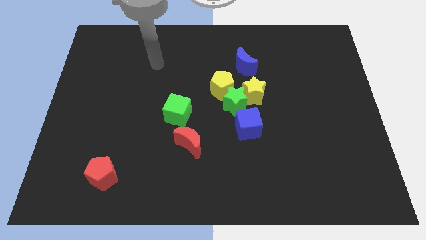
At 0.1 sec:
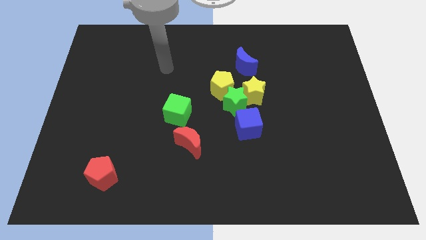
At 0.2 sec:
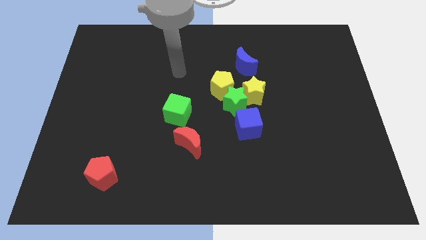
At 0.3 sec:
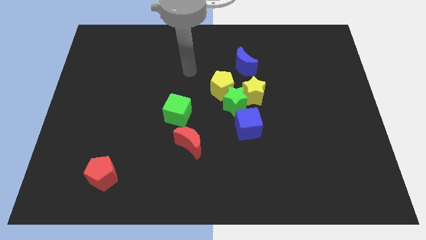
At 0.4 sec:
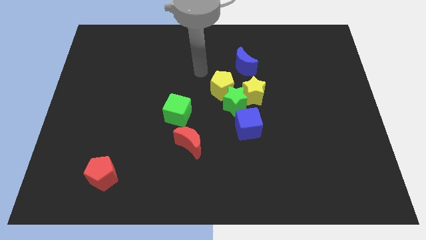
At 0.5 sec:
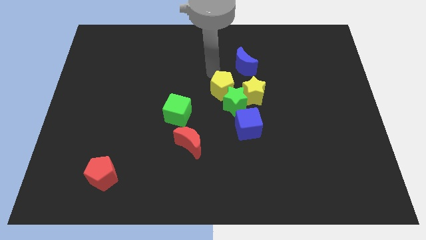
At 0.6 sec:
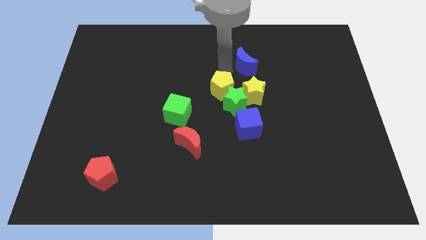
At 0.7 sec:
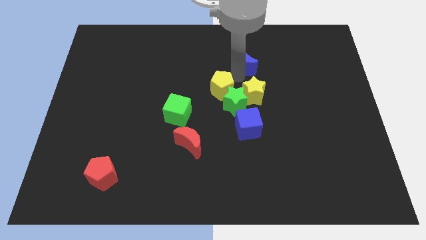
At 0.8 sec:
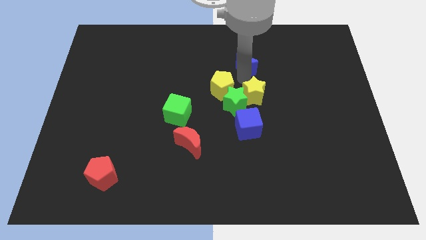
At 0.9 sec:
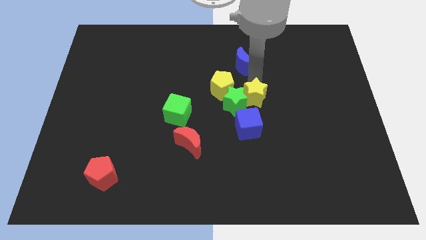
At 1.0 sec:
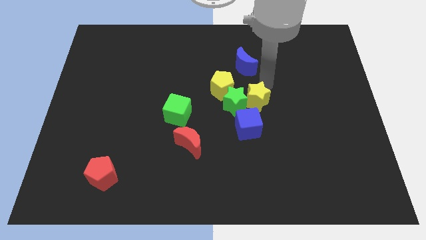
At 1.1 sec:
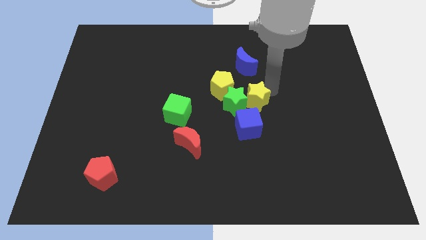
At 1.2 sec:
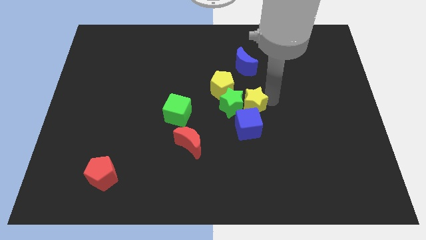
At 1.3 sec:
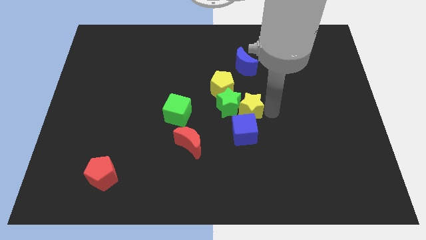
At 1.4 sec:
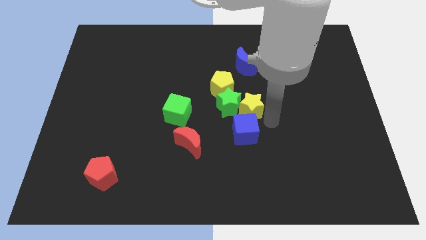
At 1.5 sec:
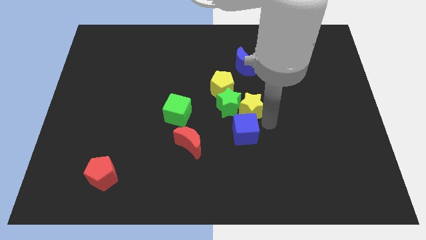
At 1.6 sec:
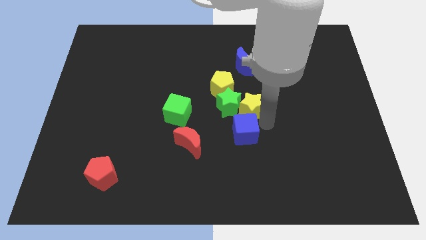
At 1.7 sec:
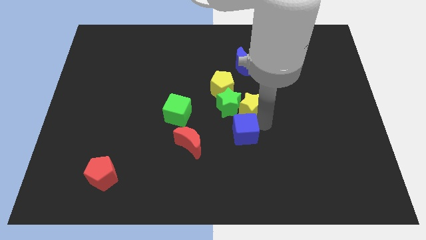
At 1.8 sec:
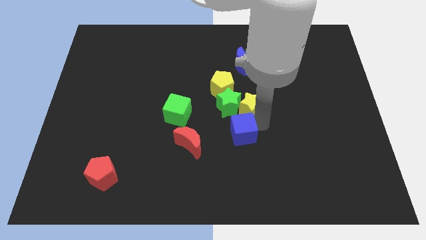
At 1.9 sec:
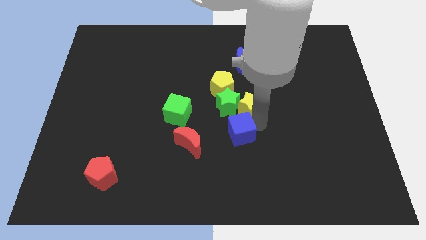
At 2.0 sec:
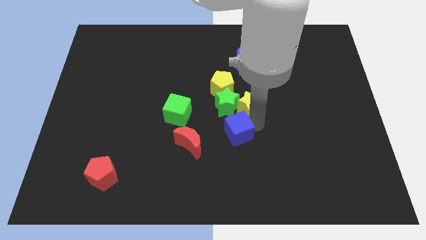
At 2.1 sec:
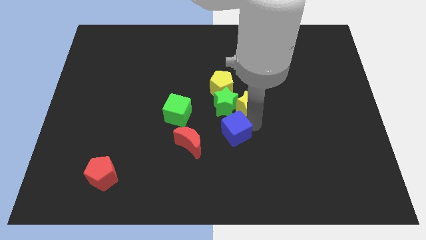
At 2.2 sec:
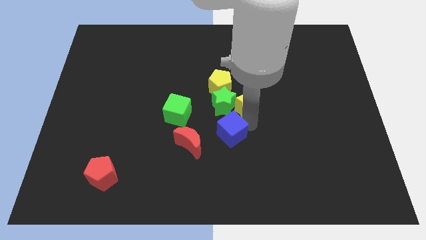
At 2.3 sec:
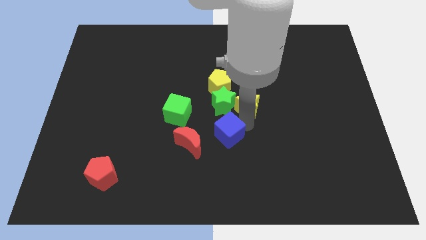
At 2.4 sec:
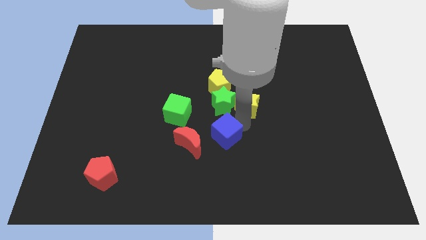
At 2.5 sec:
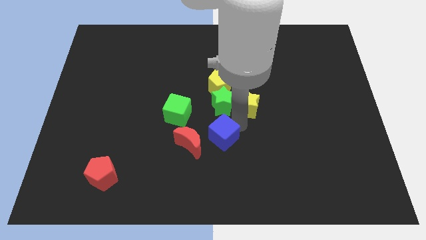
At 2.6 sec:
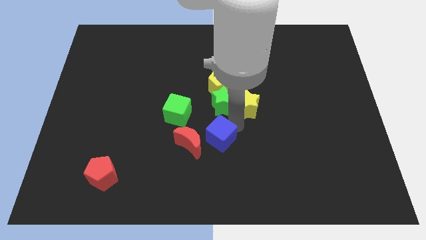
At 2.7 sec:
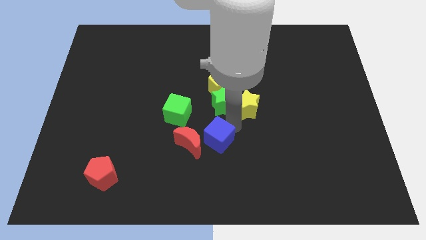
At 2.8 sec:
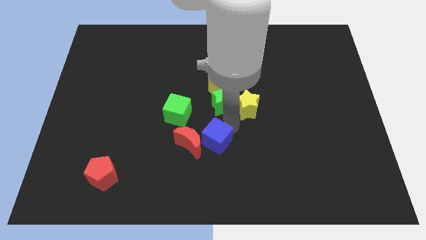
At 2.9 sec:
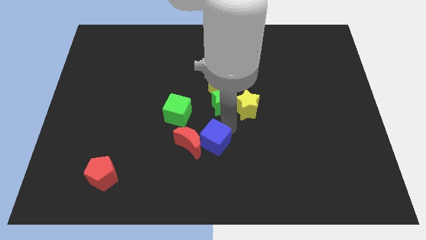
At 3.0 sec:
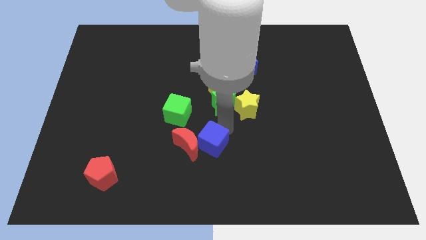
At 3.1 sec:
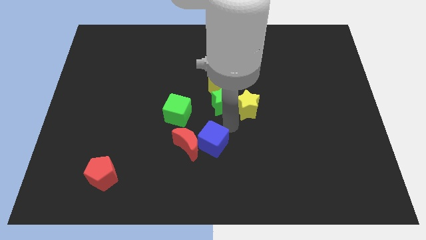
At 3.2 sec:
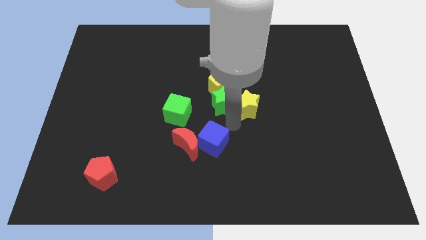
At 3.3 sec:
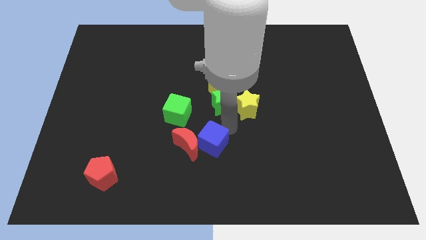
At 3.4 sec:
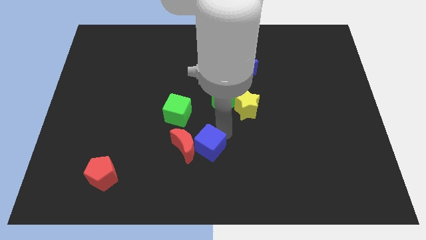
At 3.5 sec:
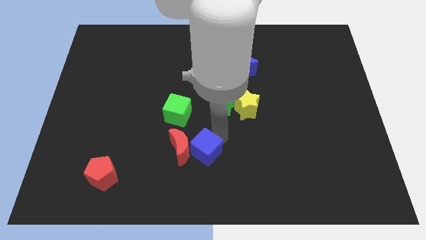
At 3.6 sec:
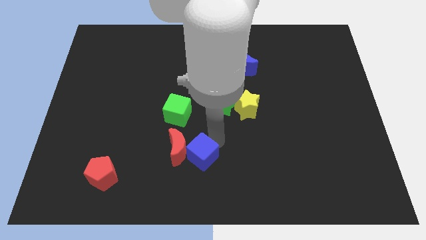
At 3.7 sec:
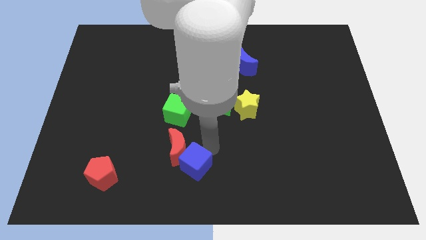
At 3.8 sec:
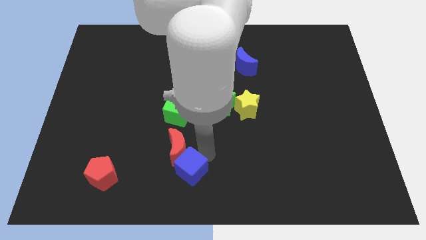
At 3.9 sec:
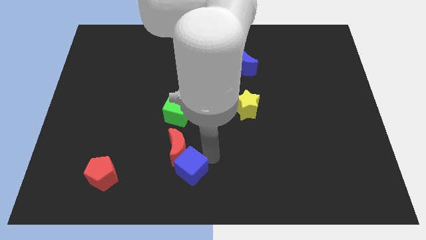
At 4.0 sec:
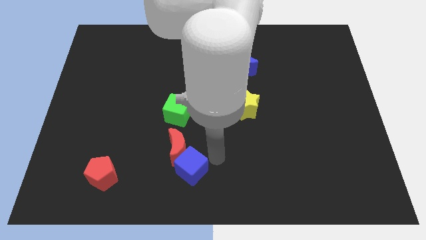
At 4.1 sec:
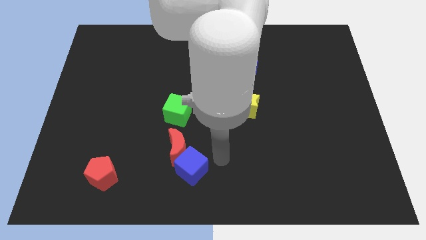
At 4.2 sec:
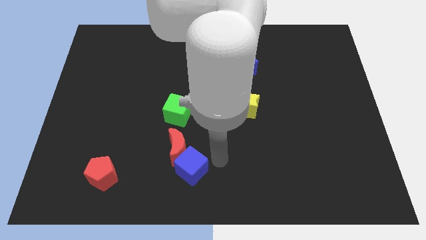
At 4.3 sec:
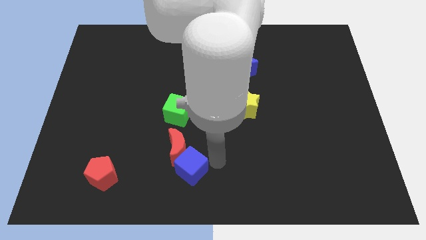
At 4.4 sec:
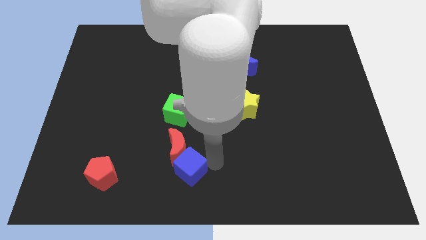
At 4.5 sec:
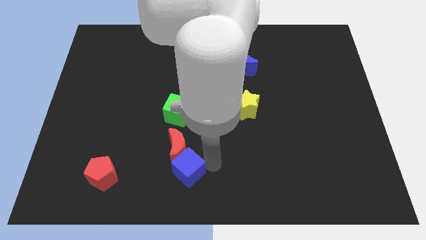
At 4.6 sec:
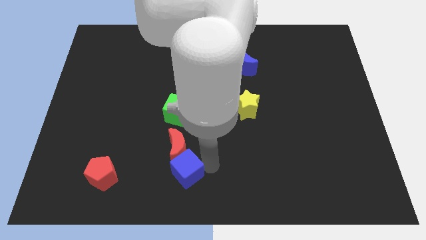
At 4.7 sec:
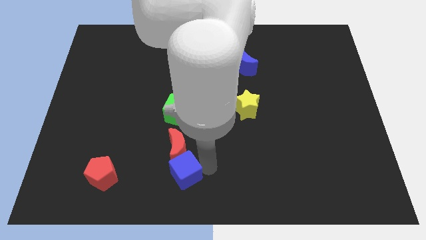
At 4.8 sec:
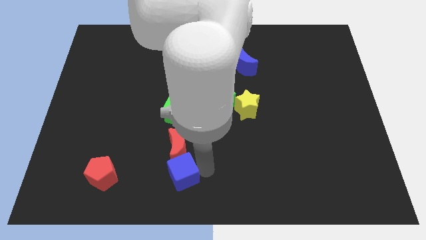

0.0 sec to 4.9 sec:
put the blue cube right of the red pentagon

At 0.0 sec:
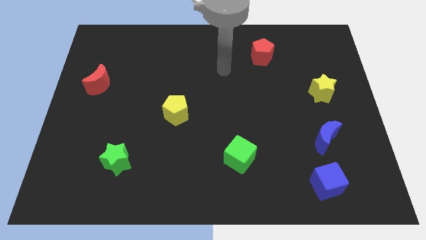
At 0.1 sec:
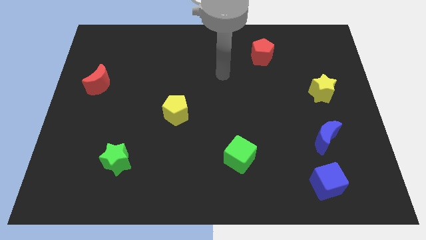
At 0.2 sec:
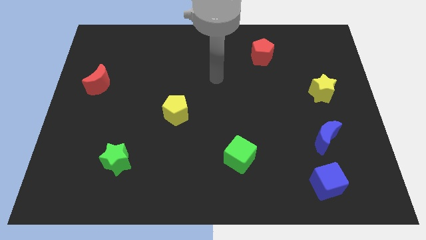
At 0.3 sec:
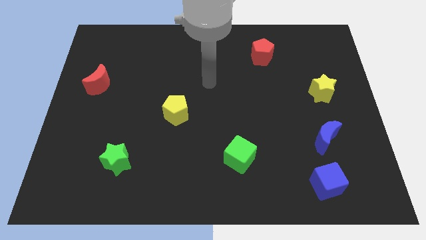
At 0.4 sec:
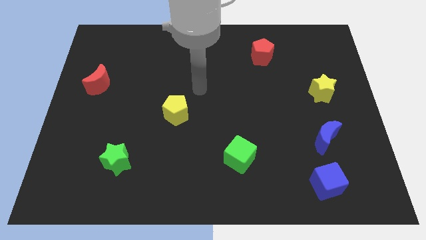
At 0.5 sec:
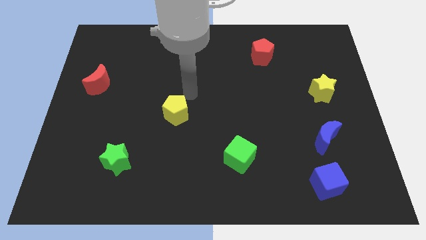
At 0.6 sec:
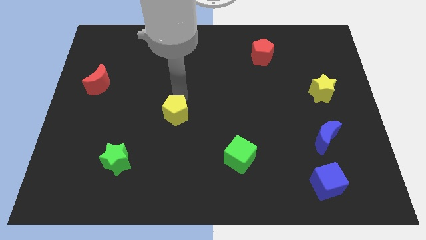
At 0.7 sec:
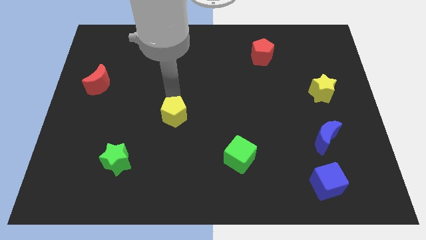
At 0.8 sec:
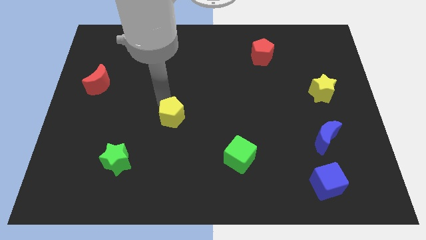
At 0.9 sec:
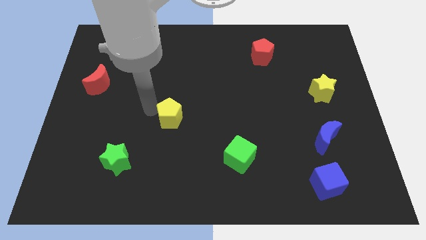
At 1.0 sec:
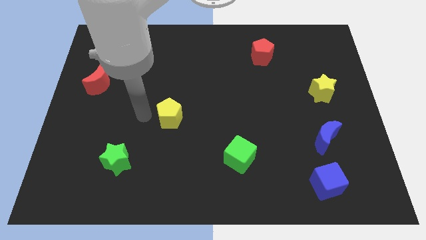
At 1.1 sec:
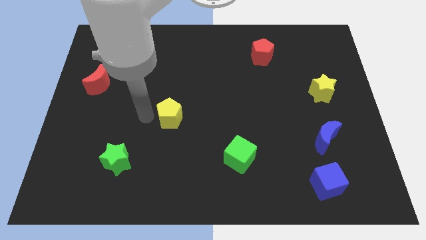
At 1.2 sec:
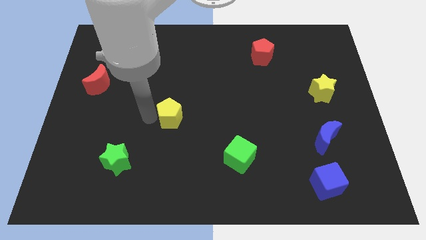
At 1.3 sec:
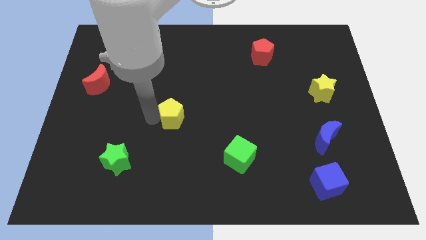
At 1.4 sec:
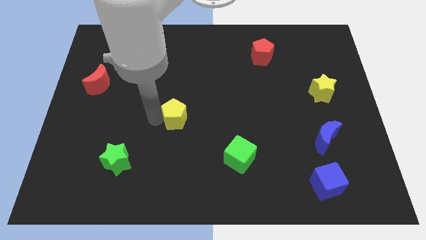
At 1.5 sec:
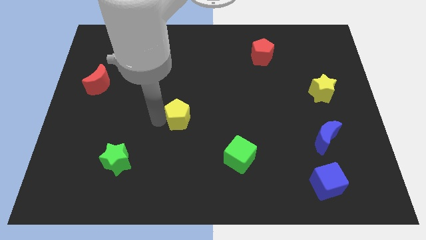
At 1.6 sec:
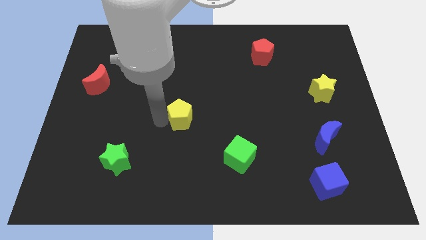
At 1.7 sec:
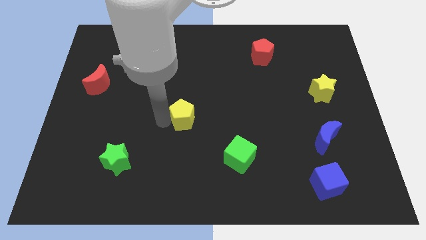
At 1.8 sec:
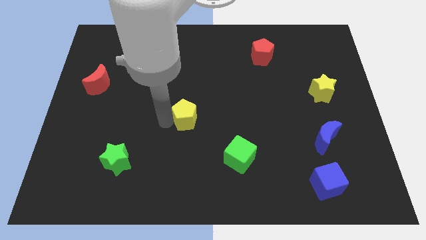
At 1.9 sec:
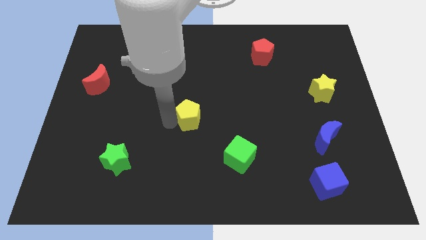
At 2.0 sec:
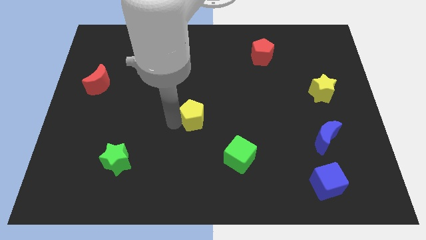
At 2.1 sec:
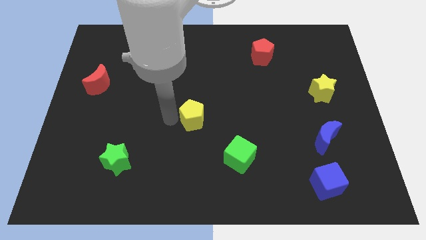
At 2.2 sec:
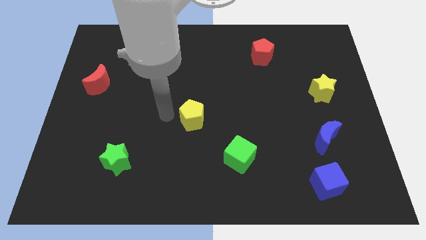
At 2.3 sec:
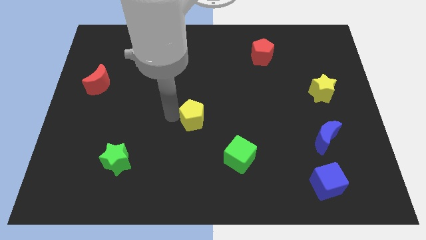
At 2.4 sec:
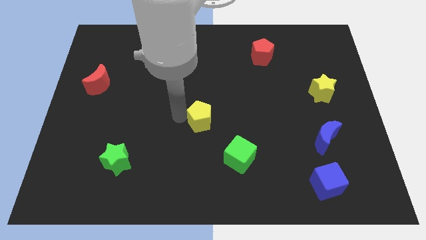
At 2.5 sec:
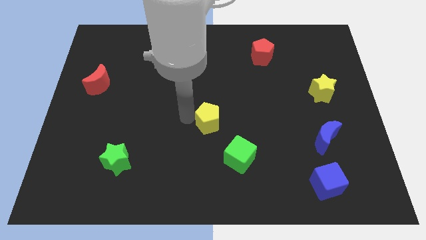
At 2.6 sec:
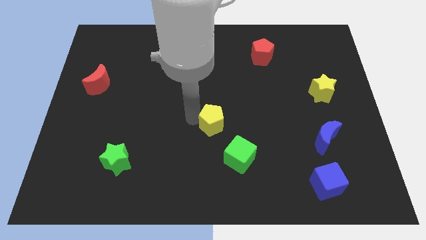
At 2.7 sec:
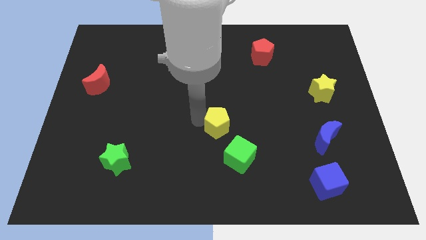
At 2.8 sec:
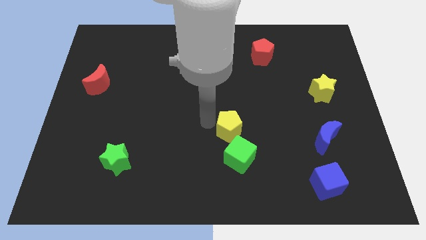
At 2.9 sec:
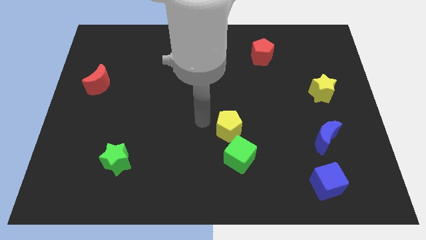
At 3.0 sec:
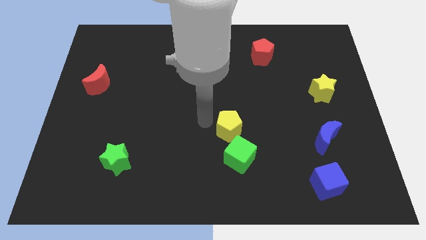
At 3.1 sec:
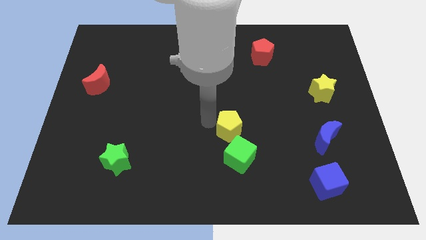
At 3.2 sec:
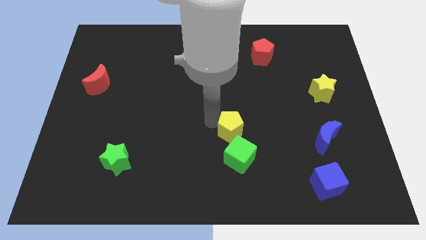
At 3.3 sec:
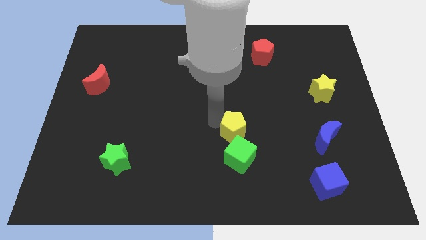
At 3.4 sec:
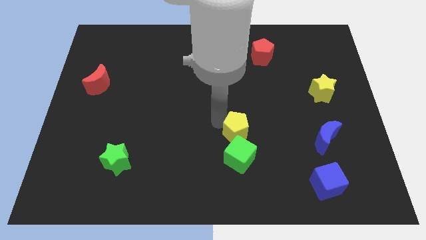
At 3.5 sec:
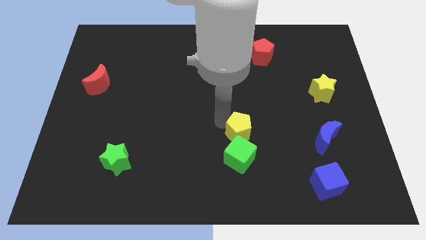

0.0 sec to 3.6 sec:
push the yellow pentagon diagonally up and to the right of the green cube
